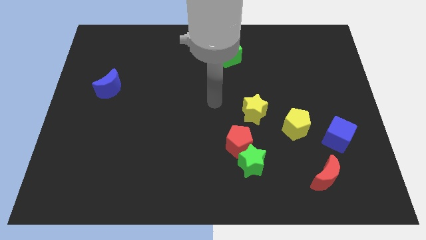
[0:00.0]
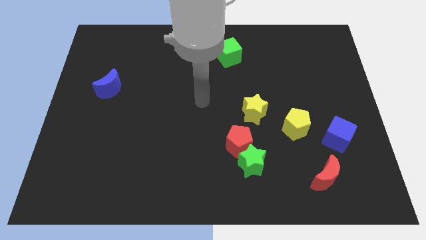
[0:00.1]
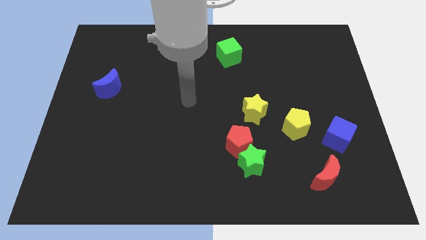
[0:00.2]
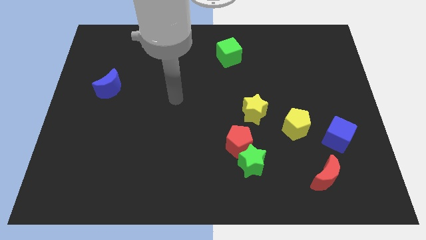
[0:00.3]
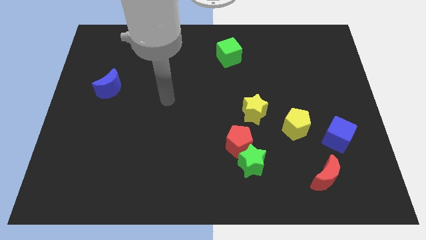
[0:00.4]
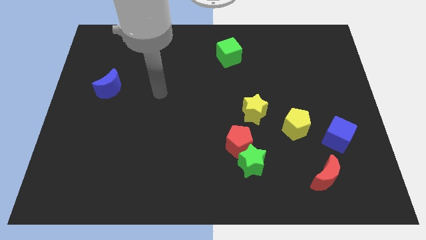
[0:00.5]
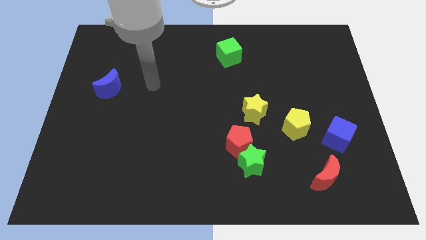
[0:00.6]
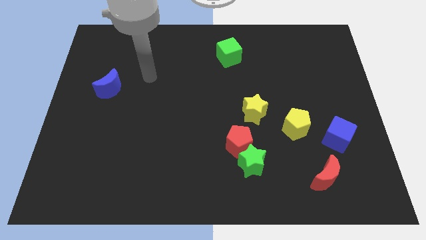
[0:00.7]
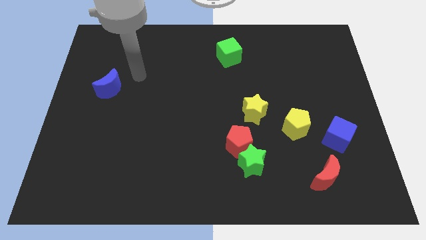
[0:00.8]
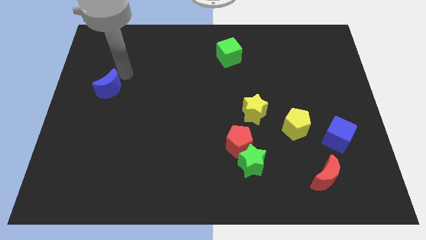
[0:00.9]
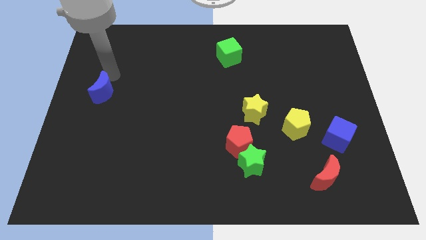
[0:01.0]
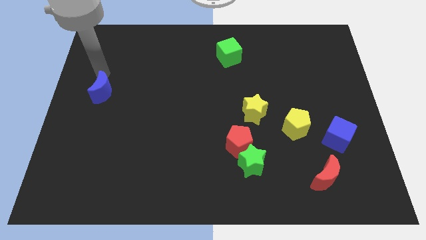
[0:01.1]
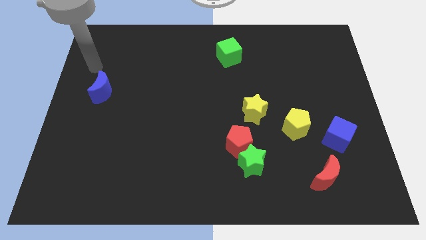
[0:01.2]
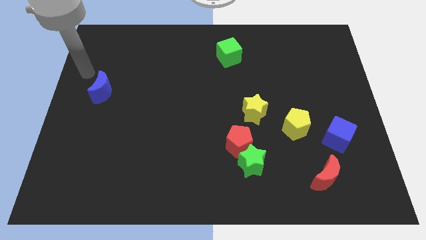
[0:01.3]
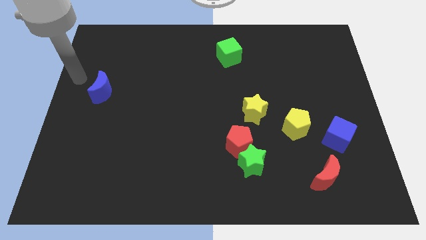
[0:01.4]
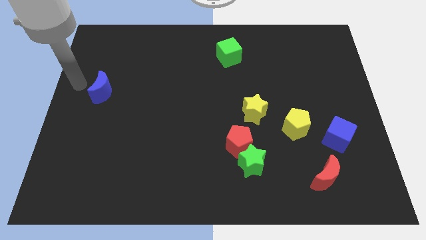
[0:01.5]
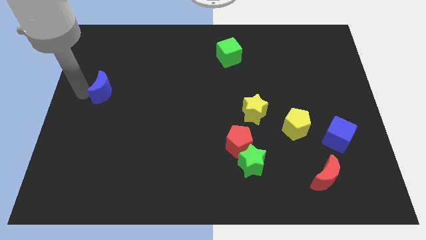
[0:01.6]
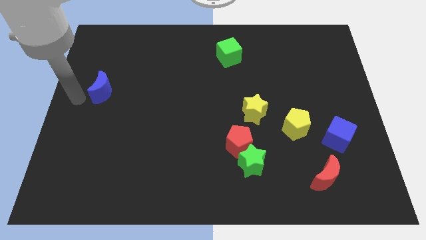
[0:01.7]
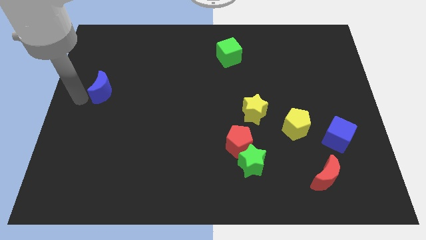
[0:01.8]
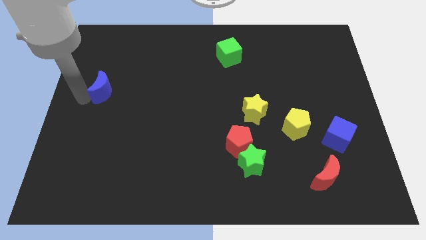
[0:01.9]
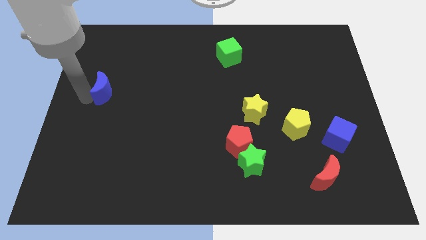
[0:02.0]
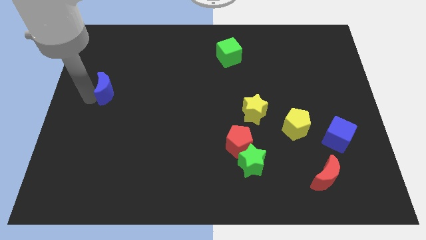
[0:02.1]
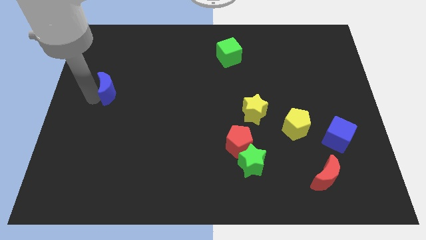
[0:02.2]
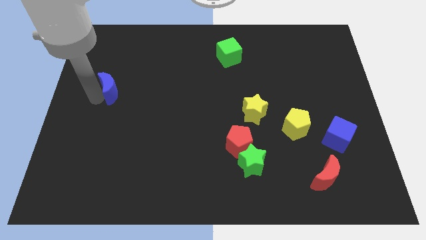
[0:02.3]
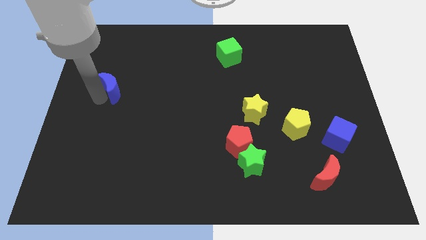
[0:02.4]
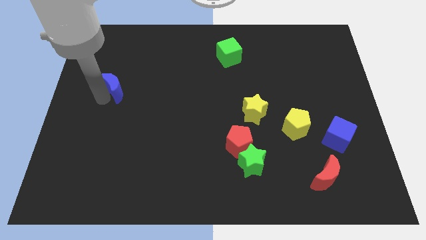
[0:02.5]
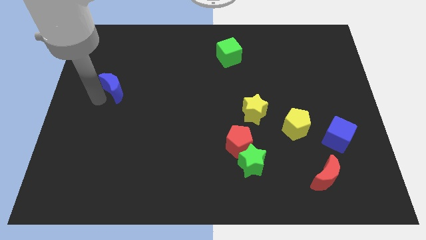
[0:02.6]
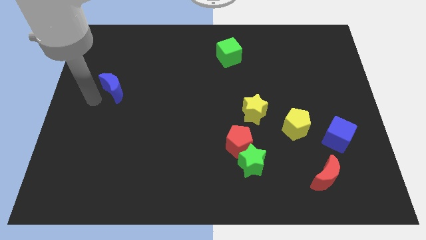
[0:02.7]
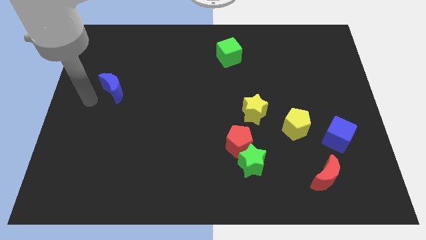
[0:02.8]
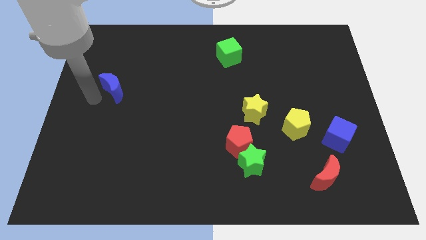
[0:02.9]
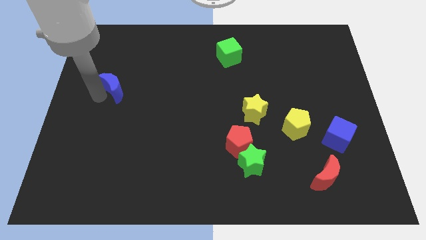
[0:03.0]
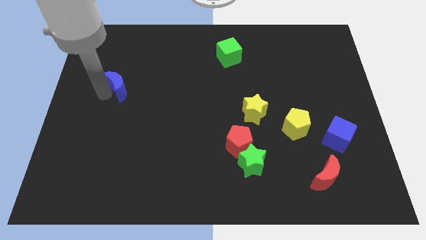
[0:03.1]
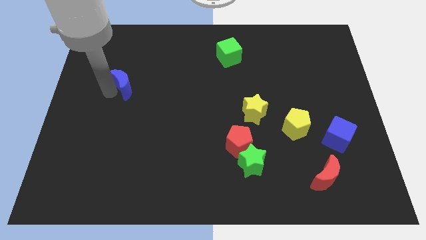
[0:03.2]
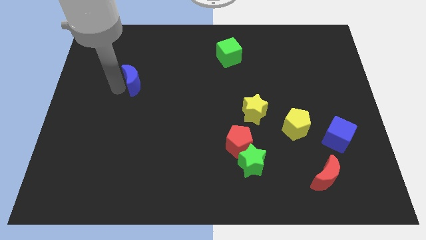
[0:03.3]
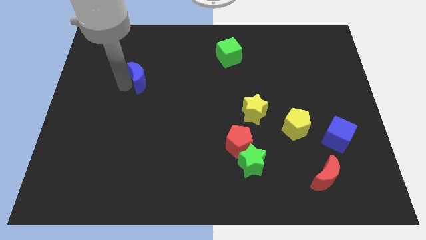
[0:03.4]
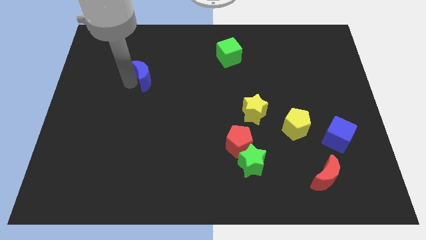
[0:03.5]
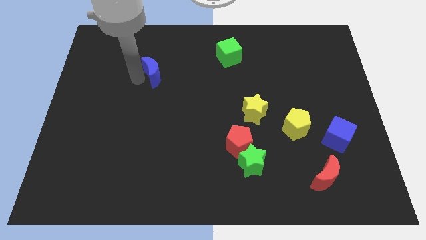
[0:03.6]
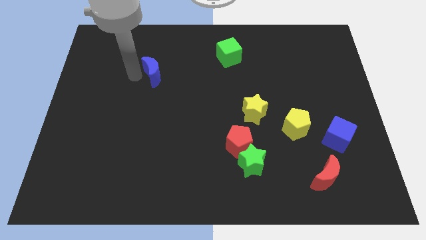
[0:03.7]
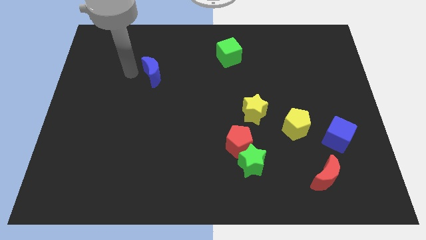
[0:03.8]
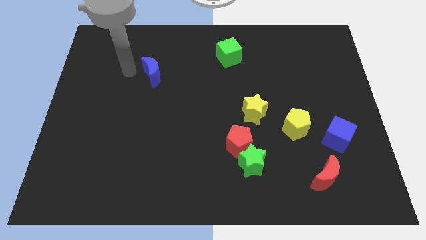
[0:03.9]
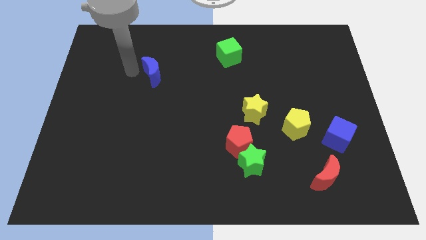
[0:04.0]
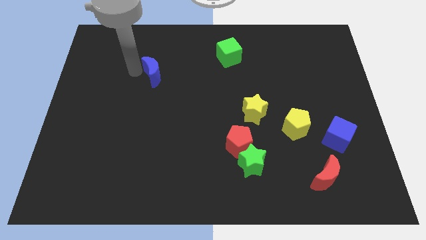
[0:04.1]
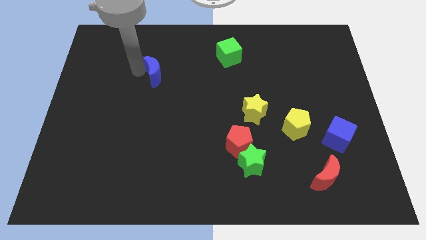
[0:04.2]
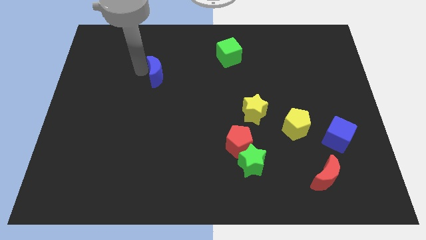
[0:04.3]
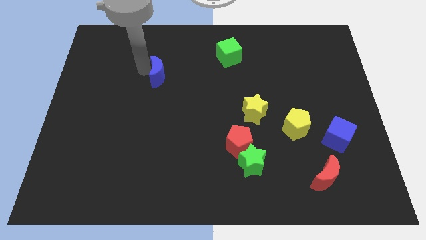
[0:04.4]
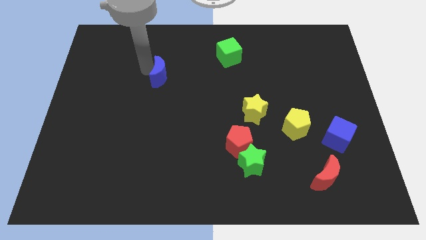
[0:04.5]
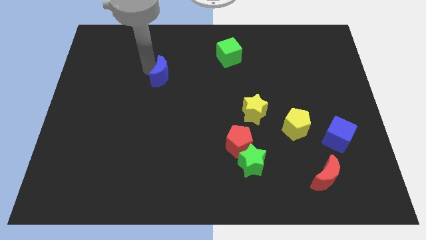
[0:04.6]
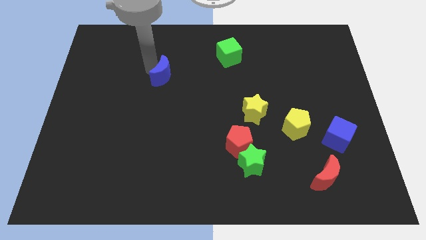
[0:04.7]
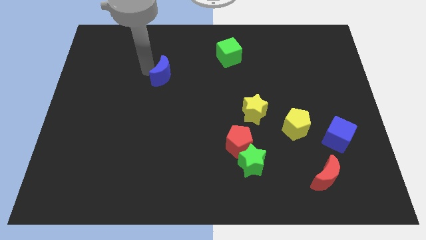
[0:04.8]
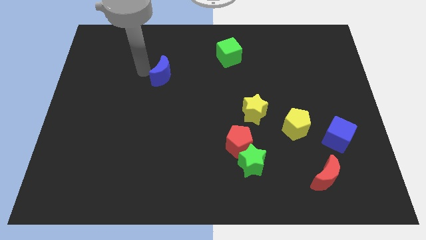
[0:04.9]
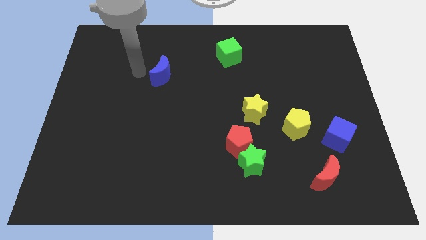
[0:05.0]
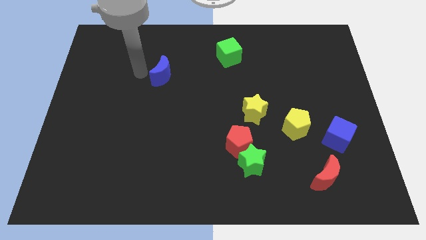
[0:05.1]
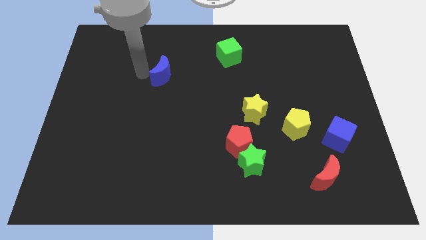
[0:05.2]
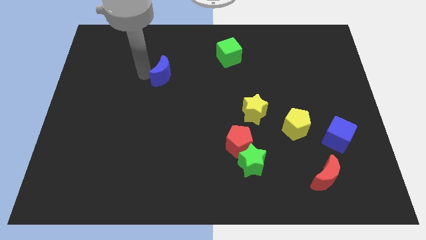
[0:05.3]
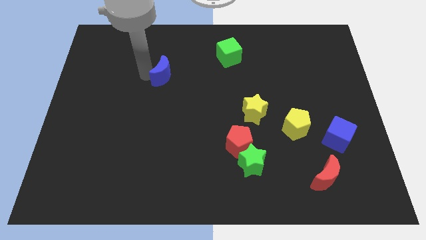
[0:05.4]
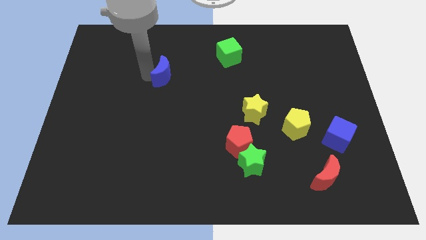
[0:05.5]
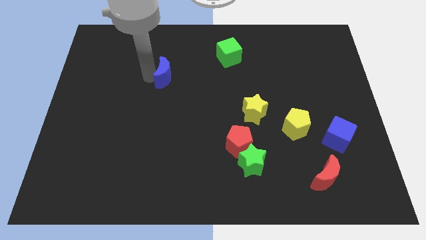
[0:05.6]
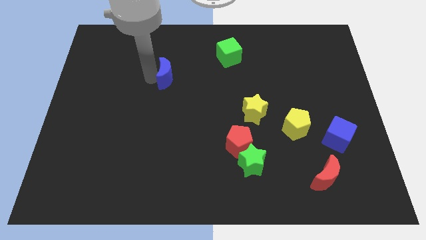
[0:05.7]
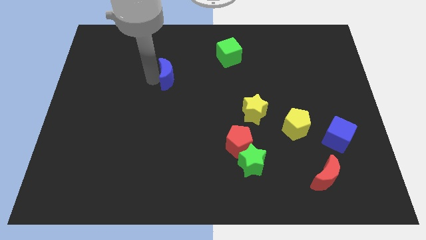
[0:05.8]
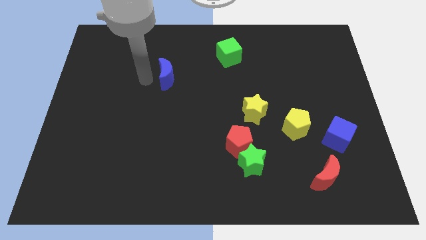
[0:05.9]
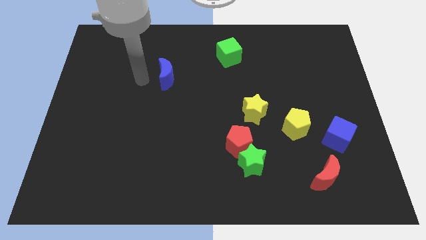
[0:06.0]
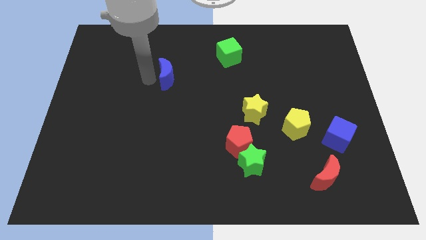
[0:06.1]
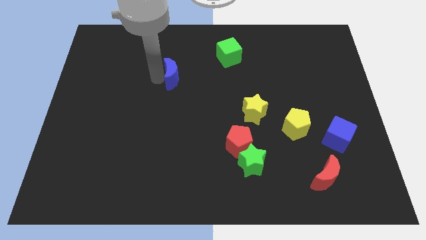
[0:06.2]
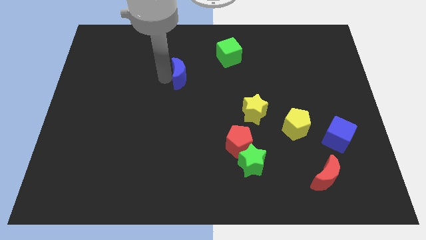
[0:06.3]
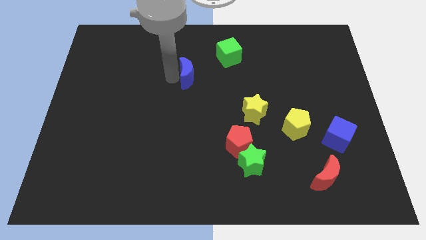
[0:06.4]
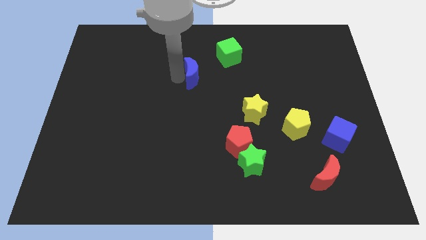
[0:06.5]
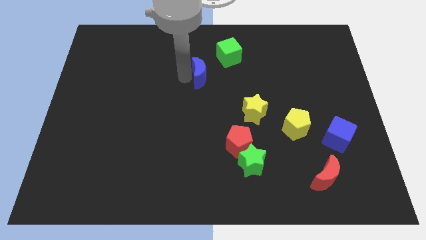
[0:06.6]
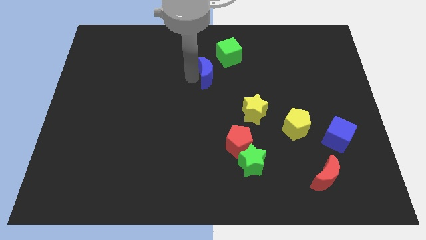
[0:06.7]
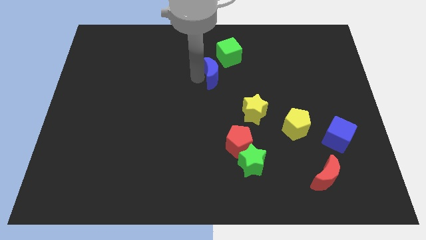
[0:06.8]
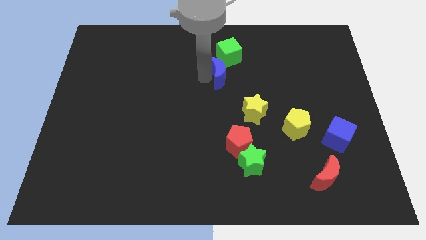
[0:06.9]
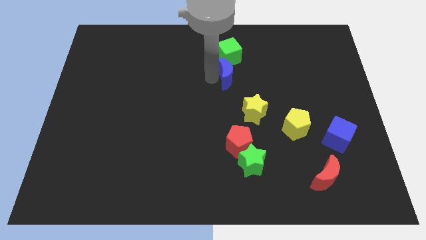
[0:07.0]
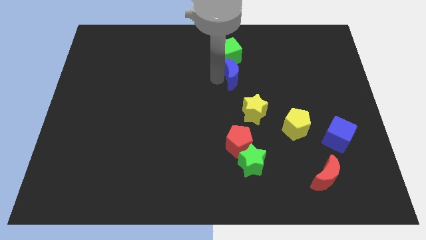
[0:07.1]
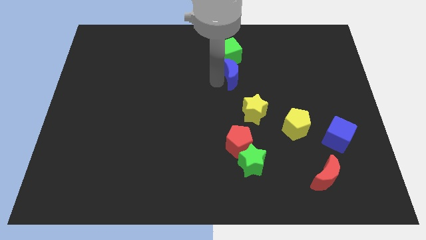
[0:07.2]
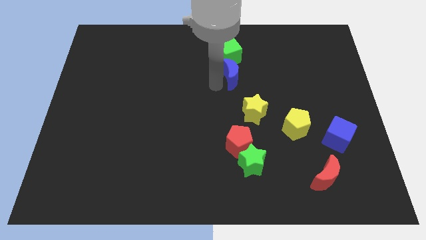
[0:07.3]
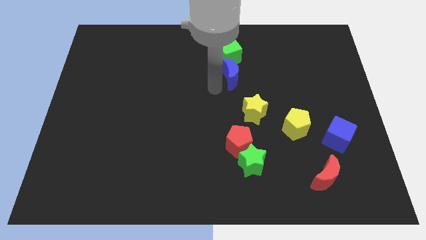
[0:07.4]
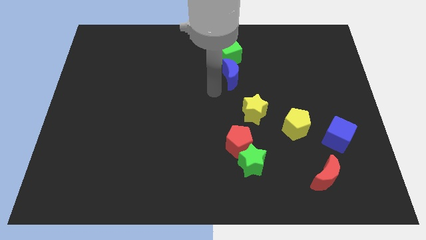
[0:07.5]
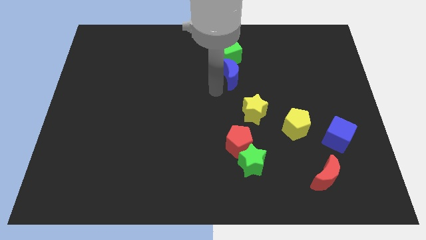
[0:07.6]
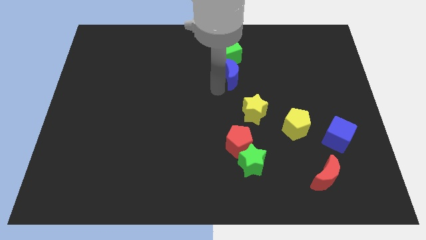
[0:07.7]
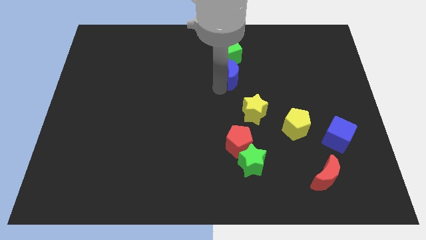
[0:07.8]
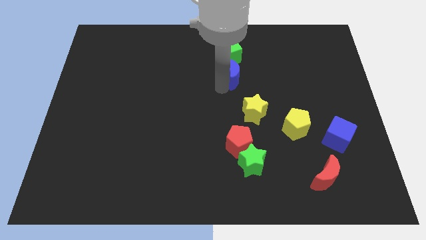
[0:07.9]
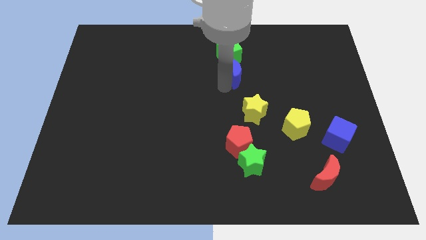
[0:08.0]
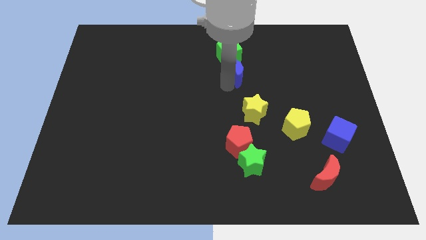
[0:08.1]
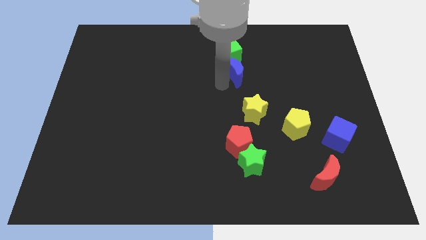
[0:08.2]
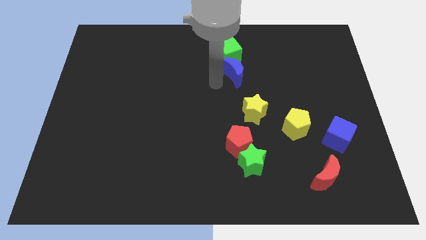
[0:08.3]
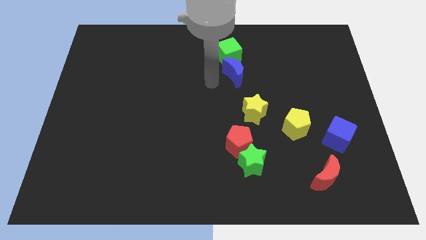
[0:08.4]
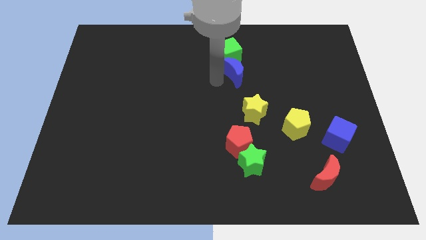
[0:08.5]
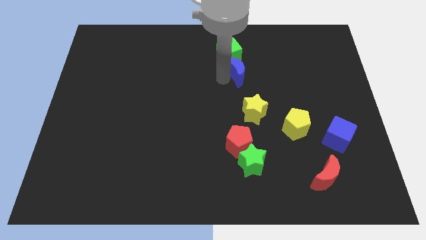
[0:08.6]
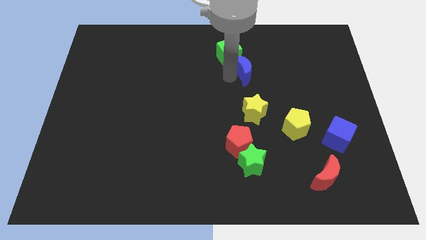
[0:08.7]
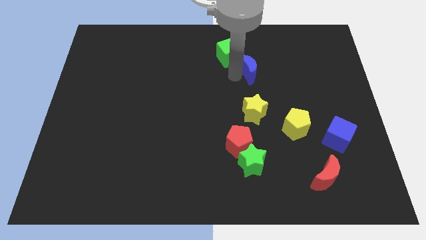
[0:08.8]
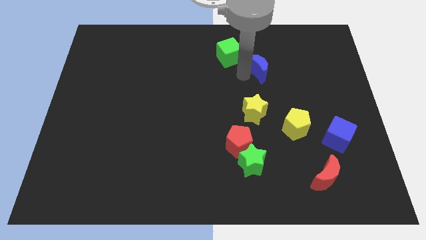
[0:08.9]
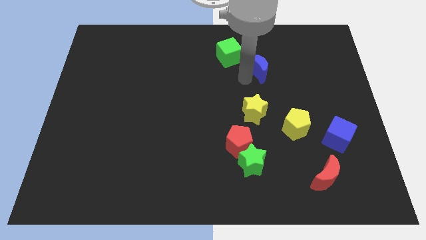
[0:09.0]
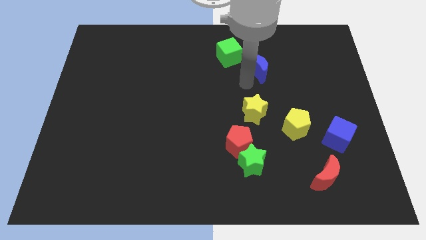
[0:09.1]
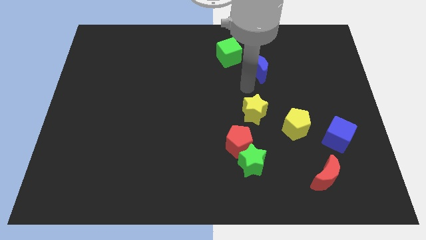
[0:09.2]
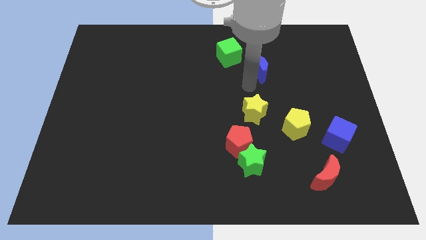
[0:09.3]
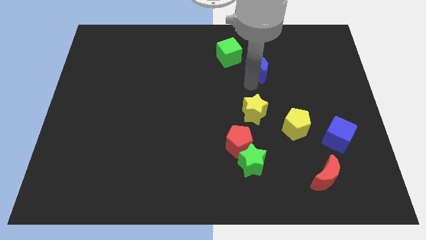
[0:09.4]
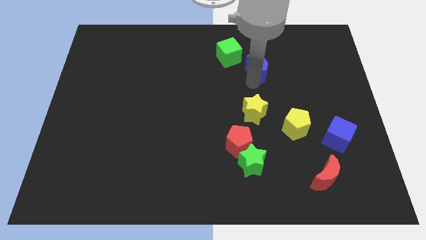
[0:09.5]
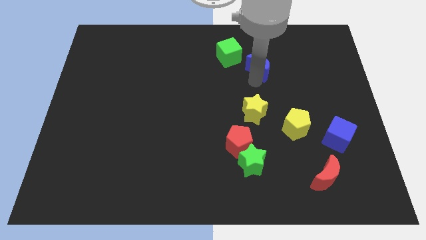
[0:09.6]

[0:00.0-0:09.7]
put the blue moon to the right of the green cube
